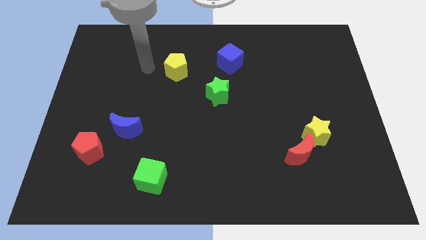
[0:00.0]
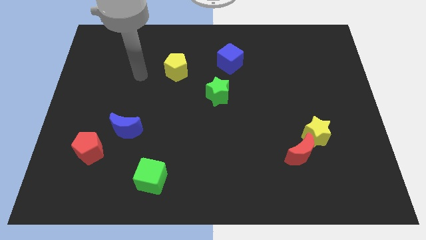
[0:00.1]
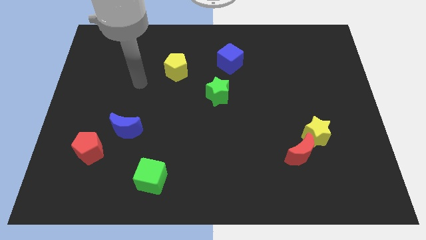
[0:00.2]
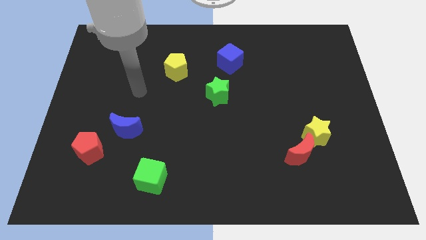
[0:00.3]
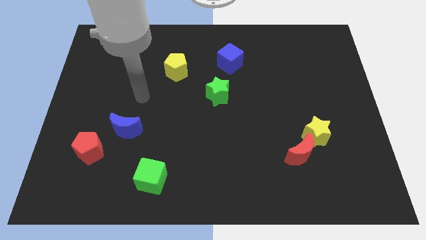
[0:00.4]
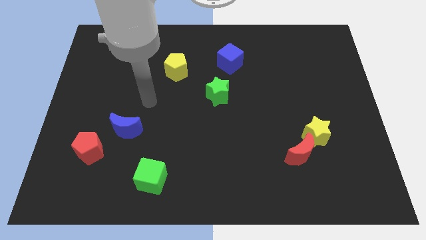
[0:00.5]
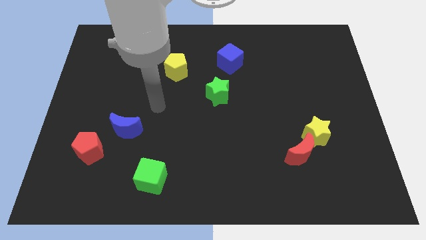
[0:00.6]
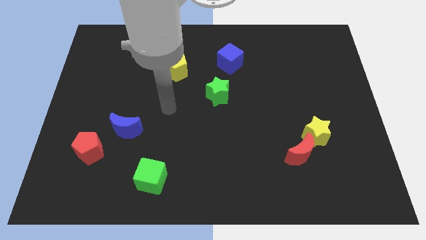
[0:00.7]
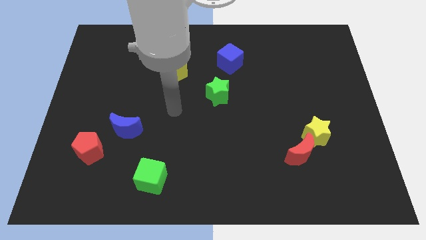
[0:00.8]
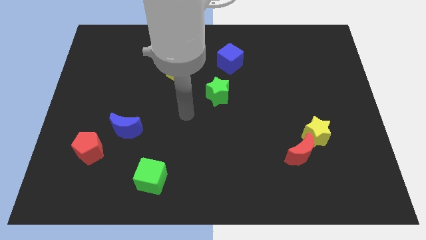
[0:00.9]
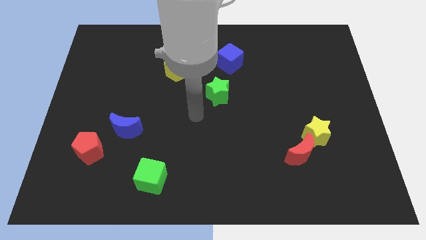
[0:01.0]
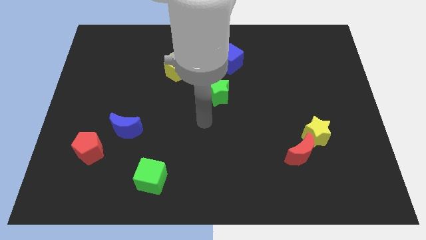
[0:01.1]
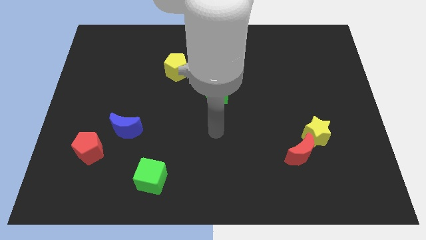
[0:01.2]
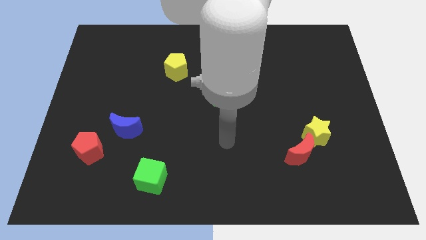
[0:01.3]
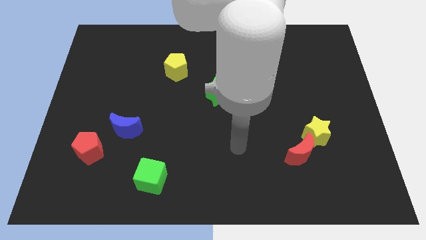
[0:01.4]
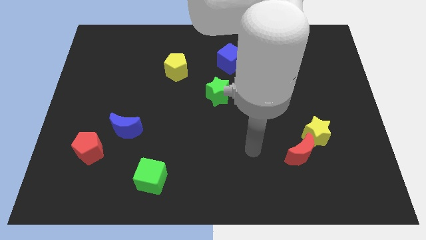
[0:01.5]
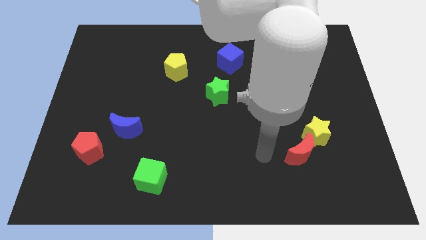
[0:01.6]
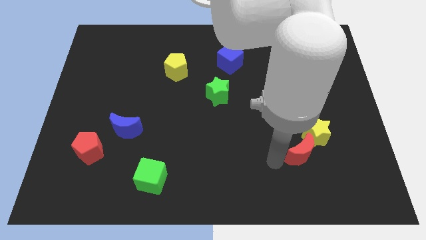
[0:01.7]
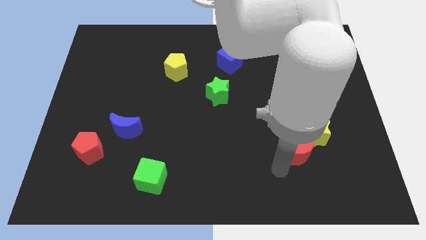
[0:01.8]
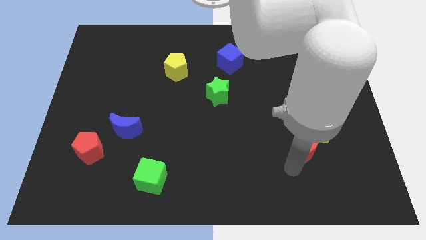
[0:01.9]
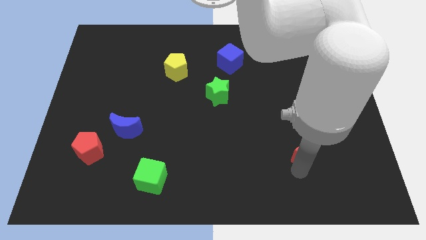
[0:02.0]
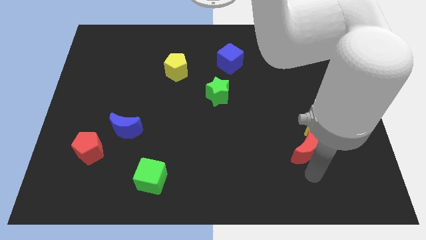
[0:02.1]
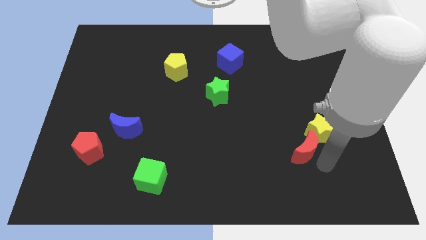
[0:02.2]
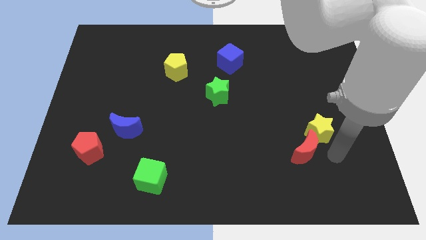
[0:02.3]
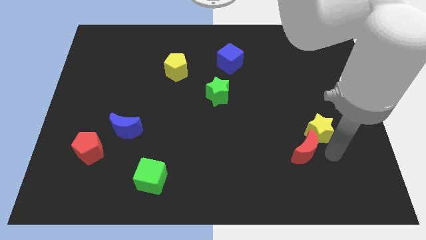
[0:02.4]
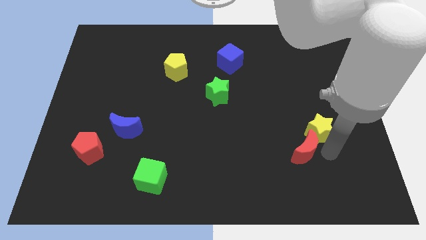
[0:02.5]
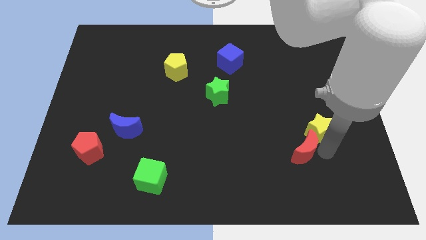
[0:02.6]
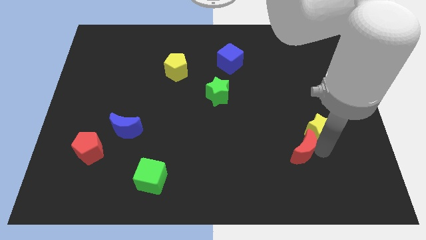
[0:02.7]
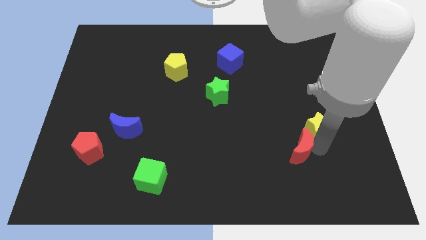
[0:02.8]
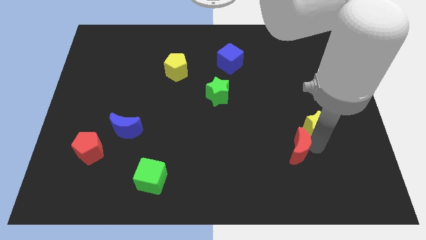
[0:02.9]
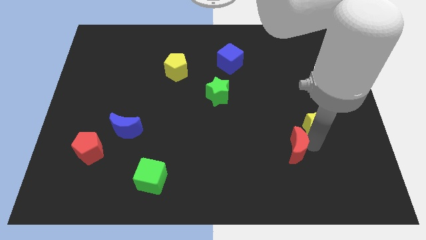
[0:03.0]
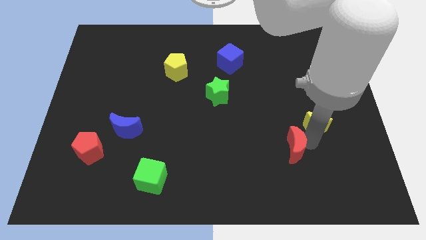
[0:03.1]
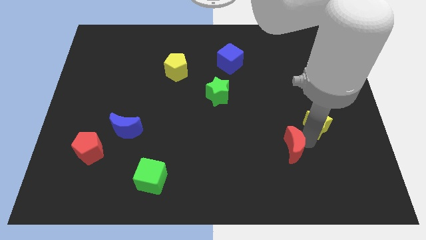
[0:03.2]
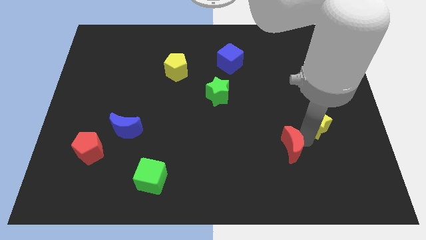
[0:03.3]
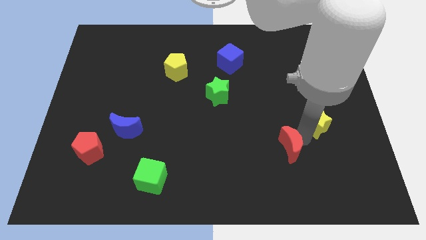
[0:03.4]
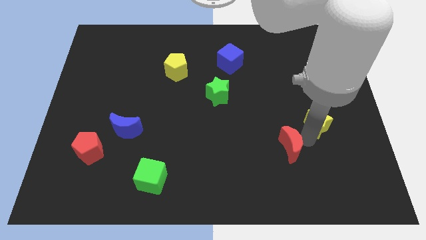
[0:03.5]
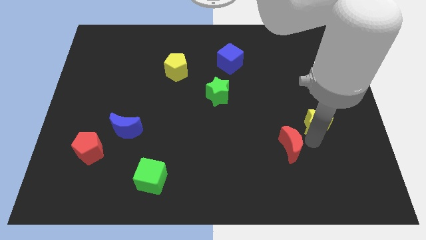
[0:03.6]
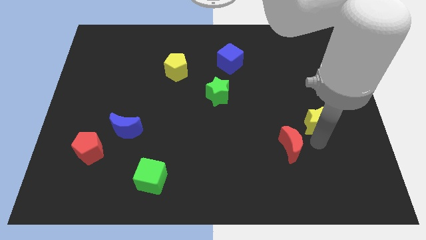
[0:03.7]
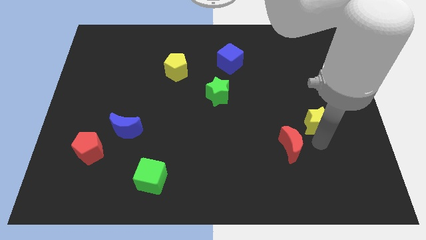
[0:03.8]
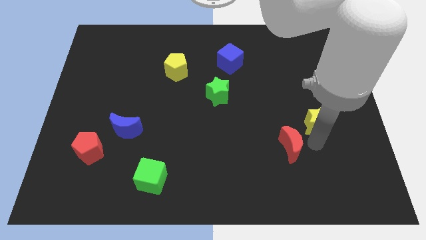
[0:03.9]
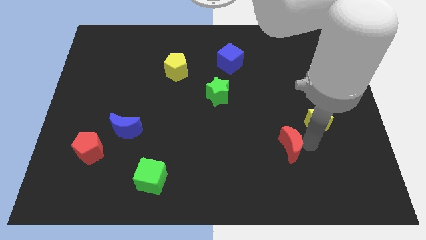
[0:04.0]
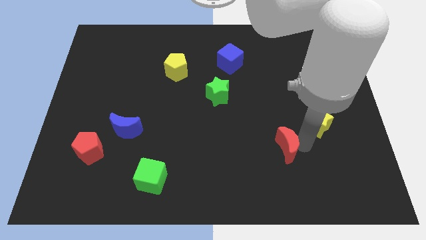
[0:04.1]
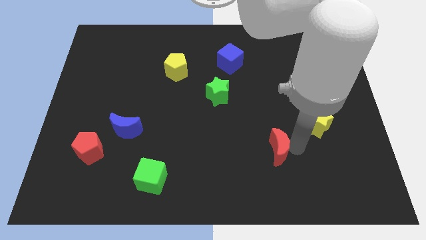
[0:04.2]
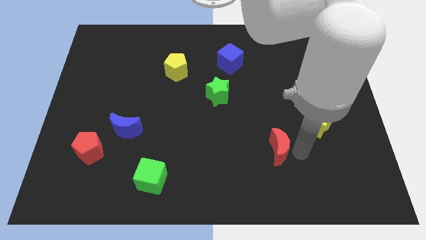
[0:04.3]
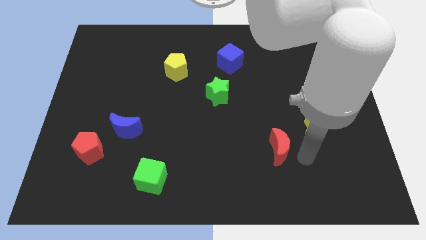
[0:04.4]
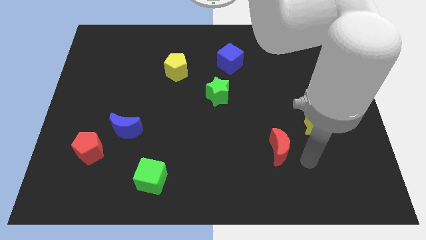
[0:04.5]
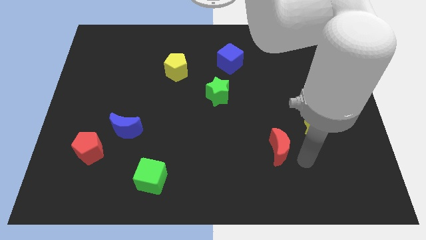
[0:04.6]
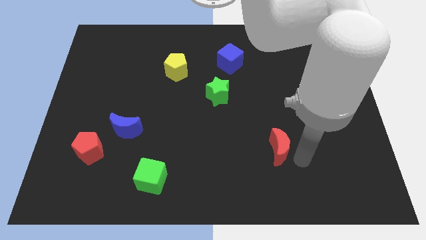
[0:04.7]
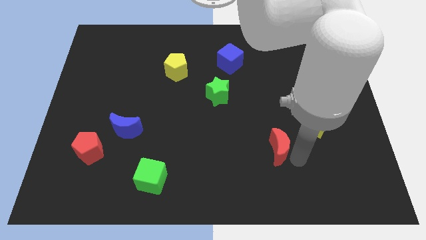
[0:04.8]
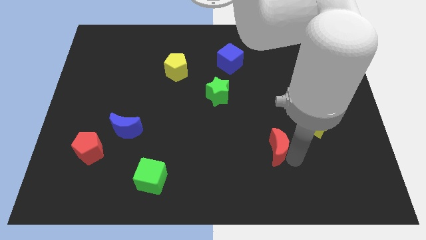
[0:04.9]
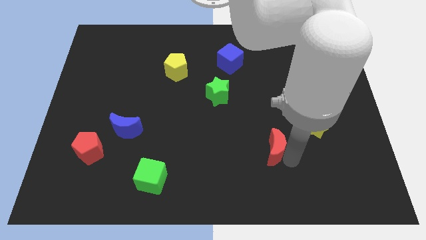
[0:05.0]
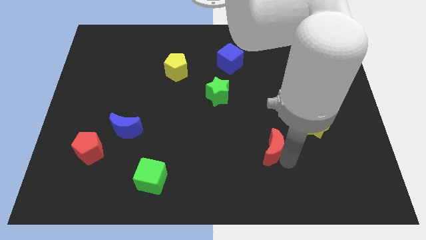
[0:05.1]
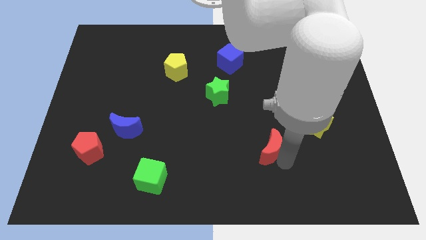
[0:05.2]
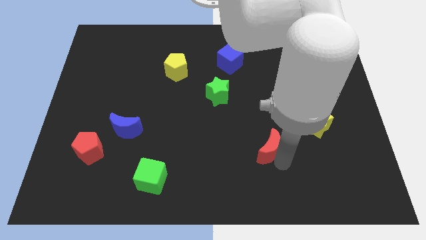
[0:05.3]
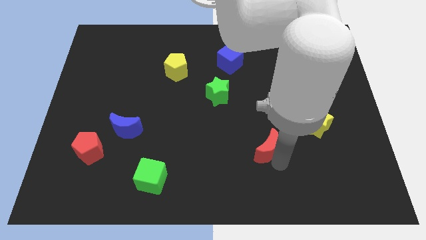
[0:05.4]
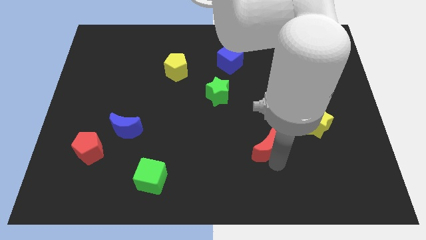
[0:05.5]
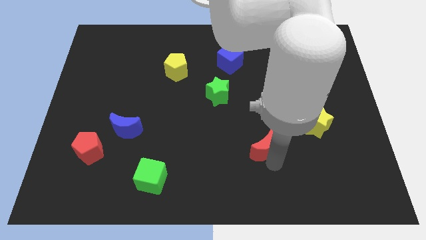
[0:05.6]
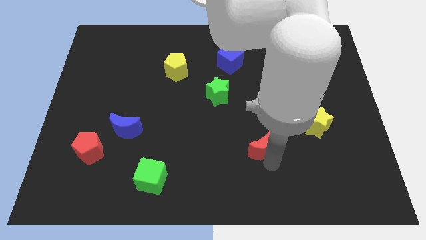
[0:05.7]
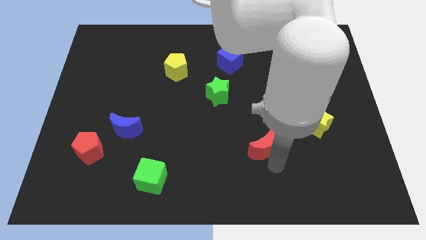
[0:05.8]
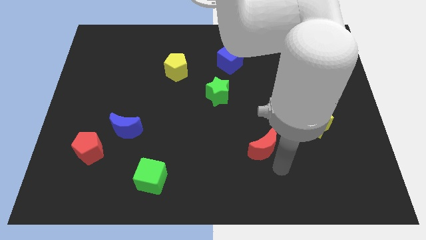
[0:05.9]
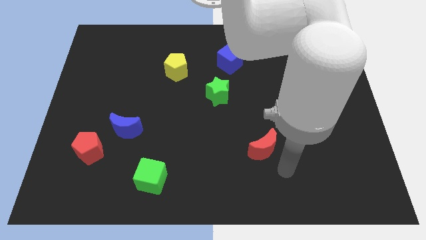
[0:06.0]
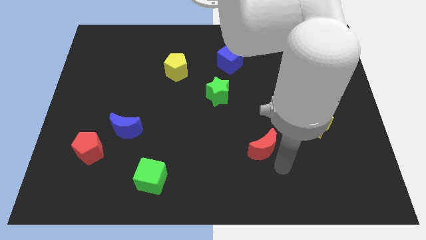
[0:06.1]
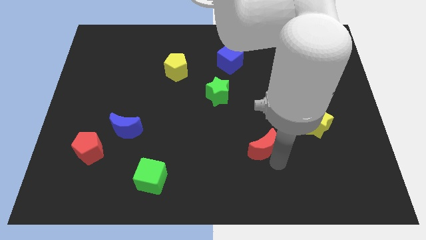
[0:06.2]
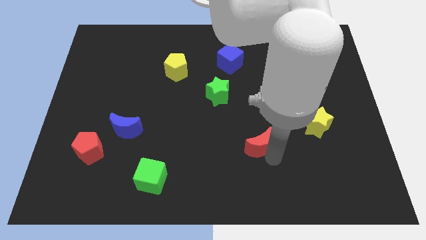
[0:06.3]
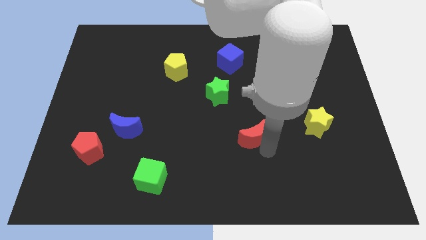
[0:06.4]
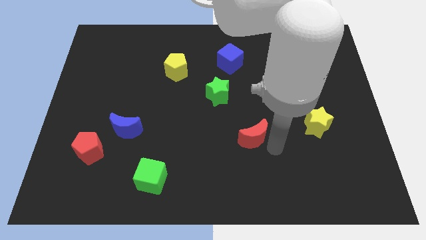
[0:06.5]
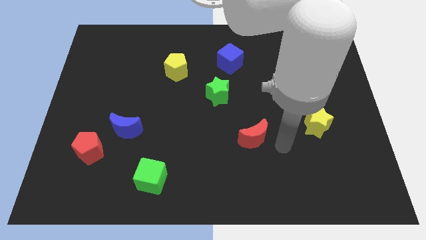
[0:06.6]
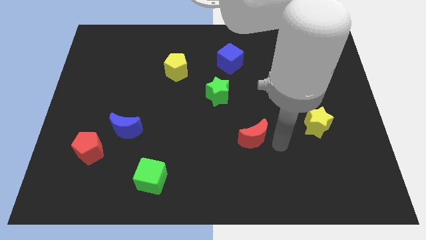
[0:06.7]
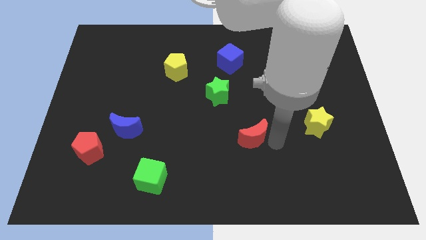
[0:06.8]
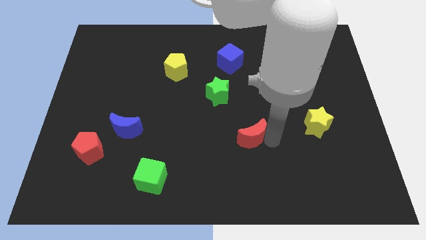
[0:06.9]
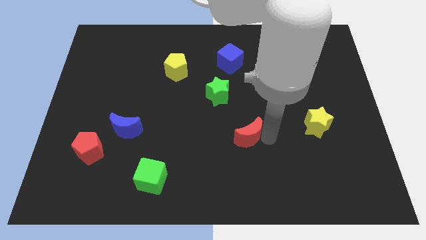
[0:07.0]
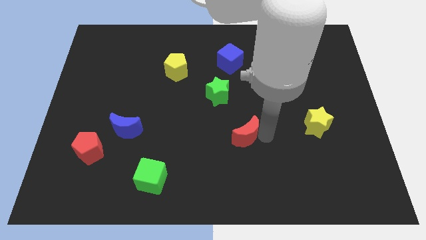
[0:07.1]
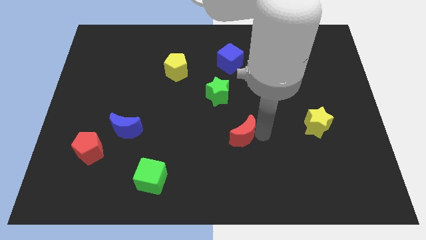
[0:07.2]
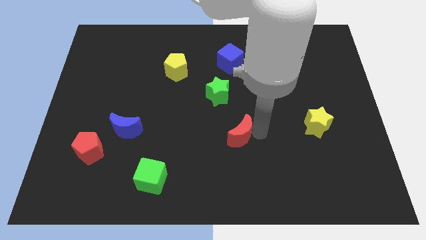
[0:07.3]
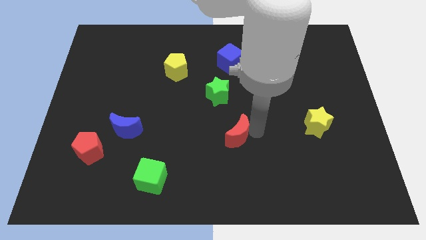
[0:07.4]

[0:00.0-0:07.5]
push the red moon to the bottom of the green star
